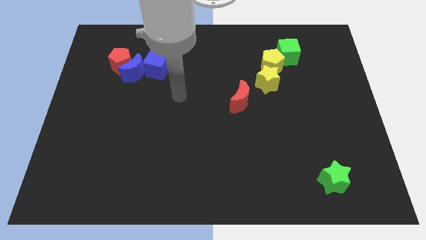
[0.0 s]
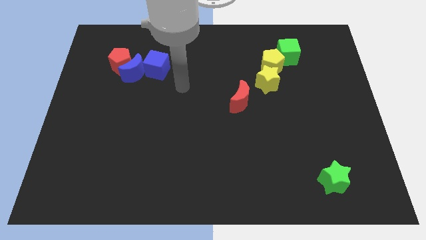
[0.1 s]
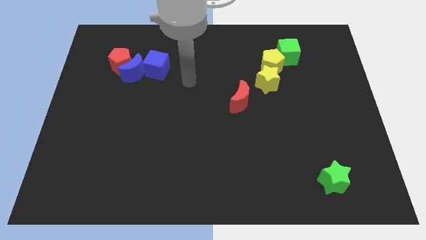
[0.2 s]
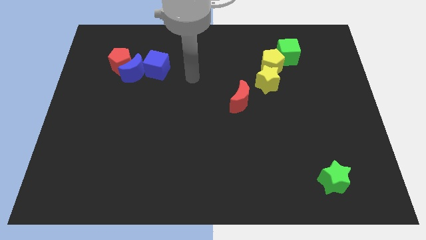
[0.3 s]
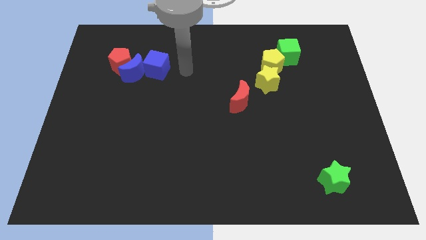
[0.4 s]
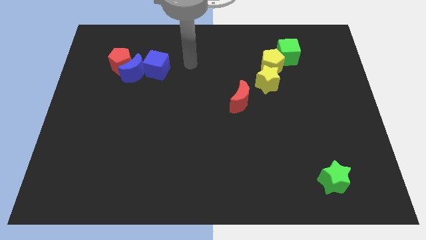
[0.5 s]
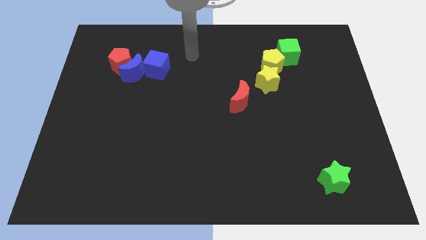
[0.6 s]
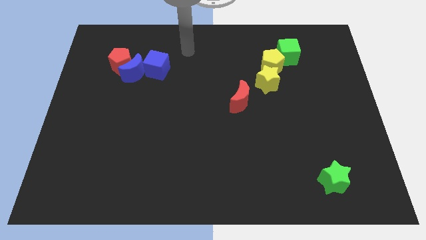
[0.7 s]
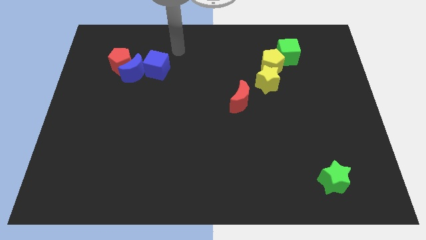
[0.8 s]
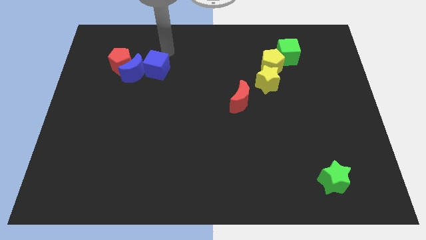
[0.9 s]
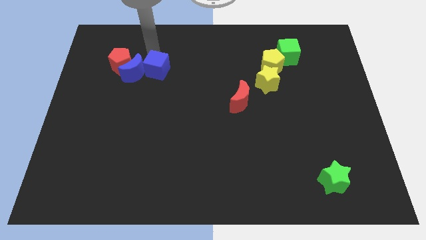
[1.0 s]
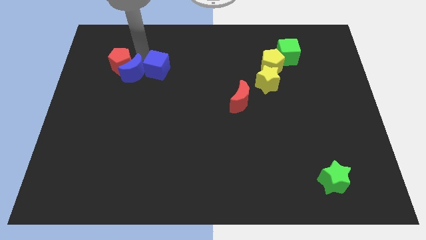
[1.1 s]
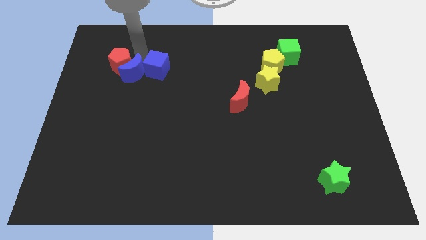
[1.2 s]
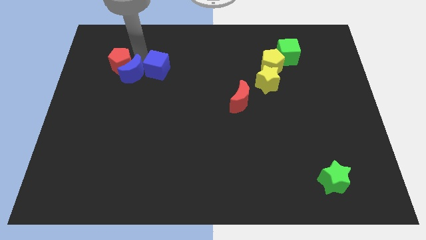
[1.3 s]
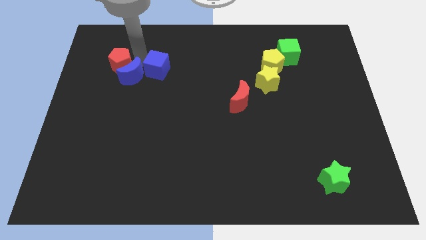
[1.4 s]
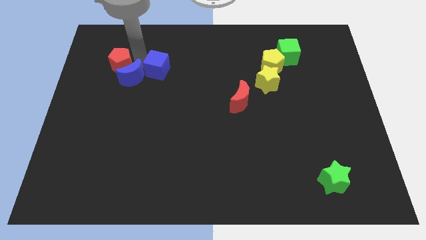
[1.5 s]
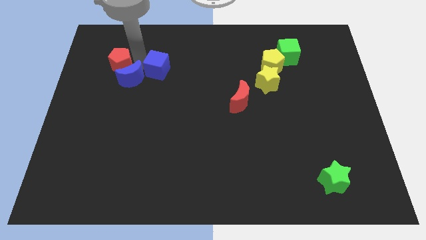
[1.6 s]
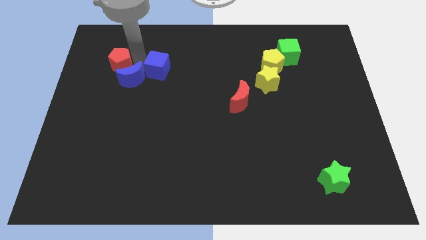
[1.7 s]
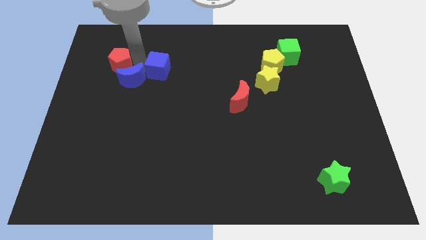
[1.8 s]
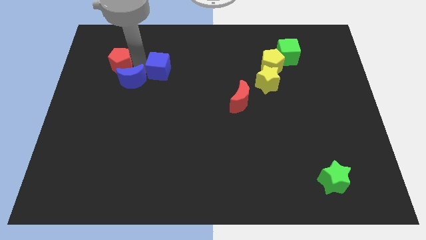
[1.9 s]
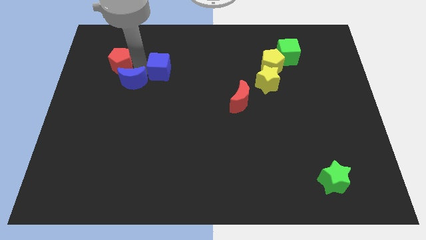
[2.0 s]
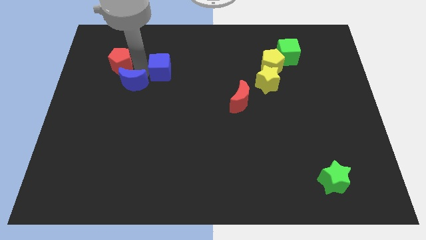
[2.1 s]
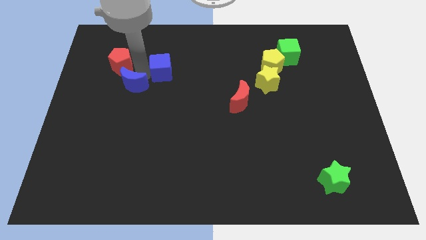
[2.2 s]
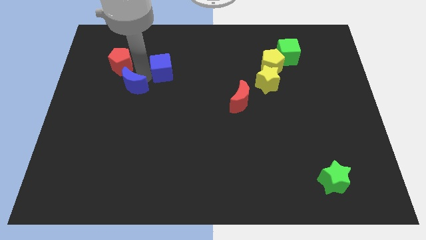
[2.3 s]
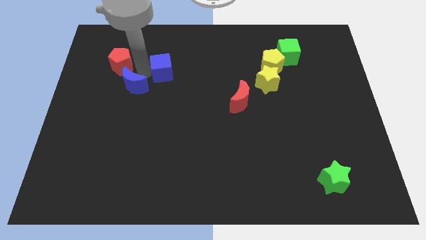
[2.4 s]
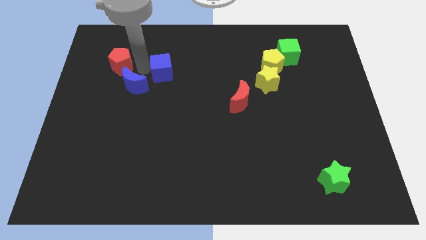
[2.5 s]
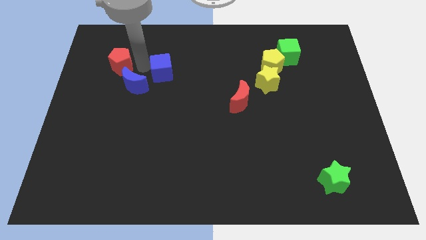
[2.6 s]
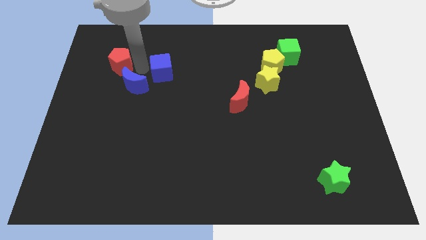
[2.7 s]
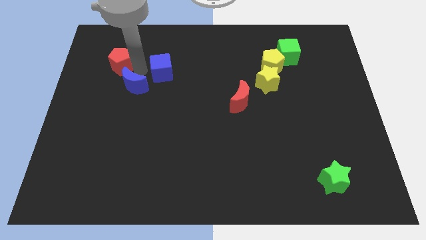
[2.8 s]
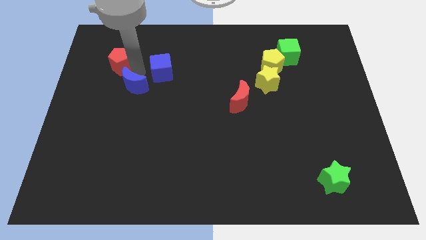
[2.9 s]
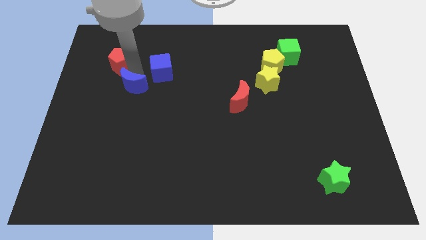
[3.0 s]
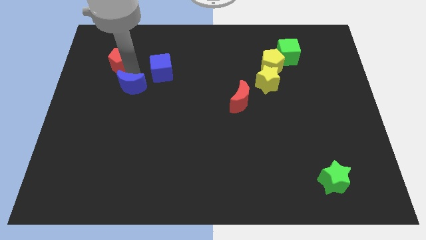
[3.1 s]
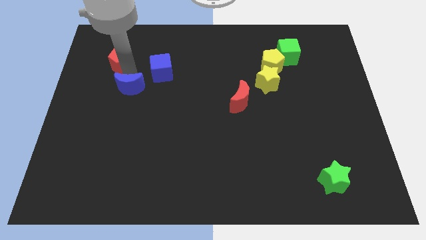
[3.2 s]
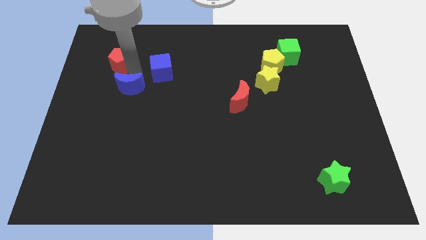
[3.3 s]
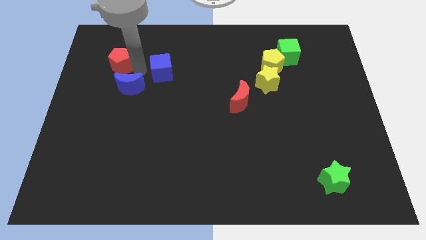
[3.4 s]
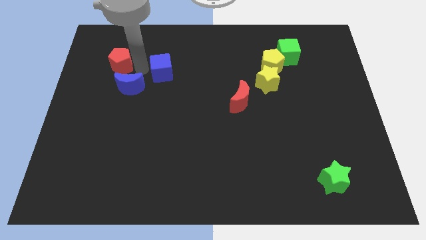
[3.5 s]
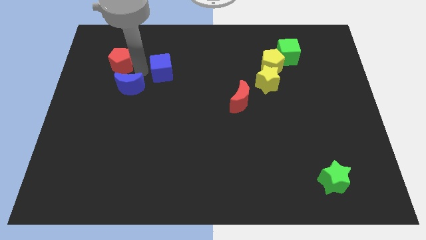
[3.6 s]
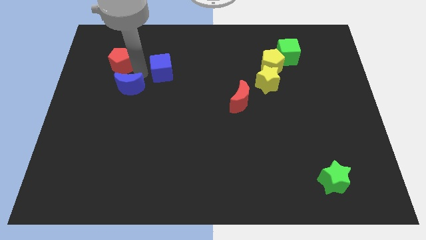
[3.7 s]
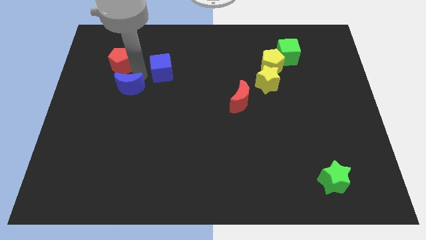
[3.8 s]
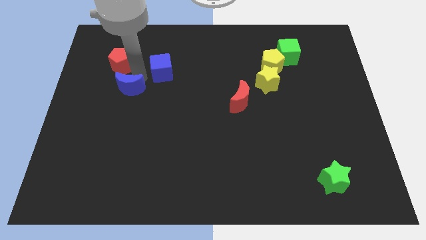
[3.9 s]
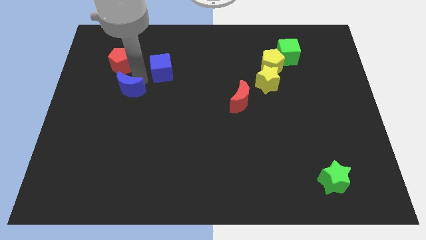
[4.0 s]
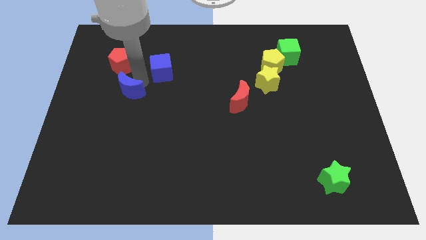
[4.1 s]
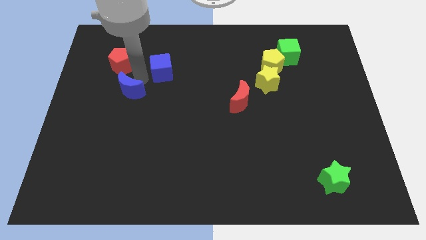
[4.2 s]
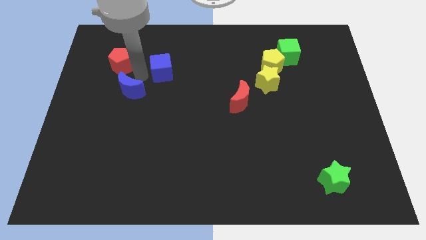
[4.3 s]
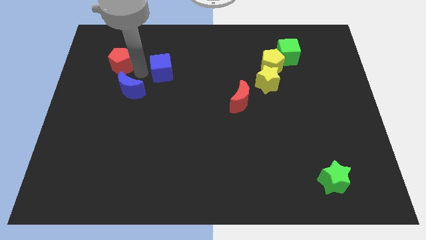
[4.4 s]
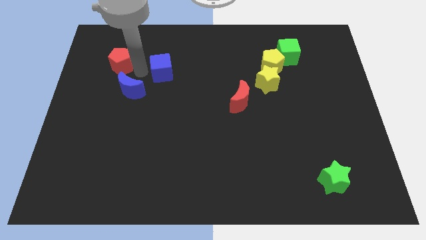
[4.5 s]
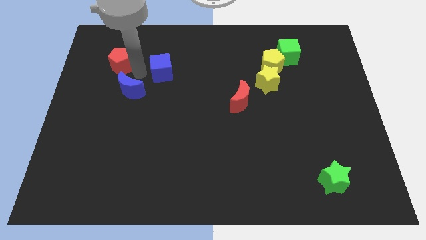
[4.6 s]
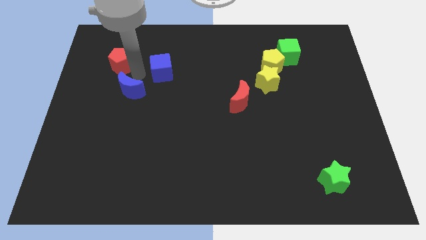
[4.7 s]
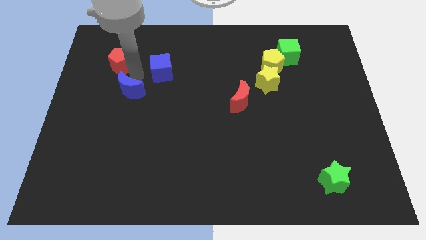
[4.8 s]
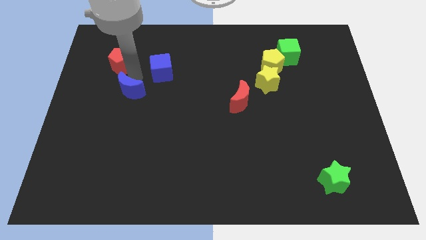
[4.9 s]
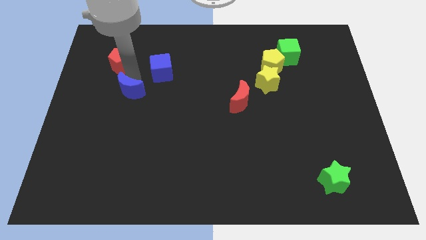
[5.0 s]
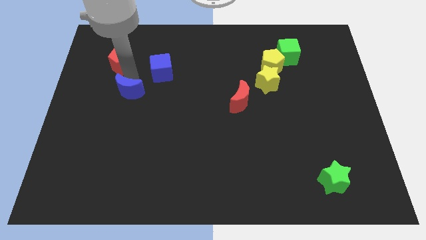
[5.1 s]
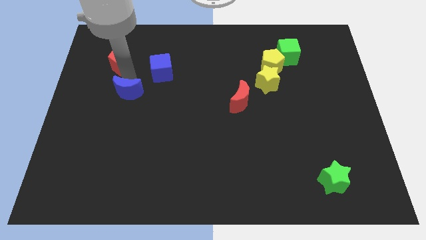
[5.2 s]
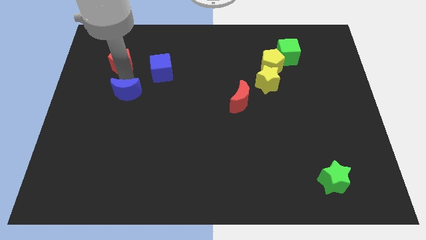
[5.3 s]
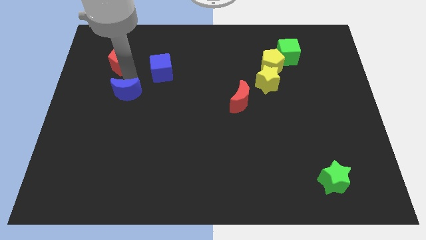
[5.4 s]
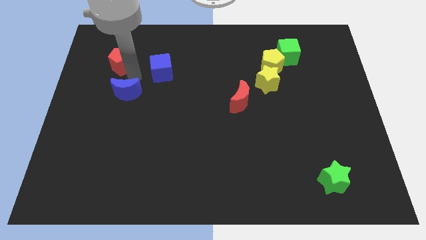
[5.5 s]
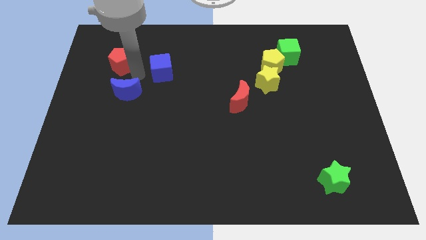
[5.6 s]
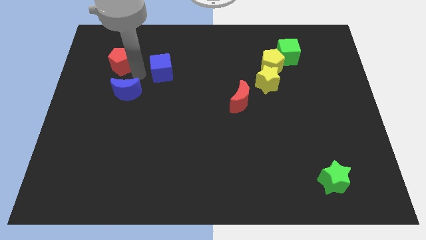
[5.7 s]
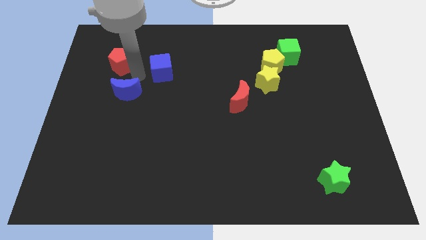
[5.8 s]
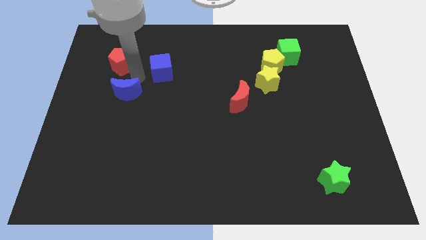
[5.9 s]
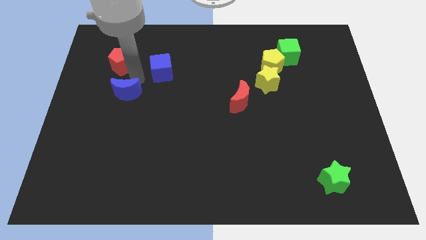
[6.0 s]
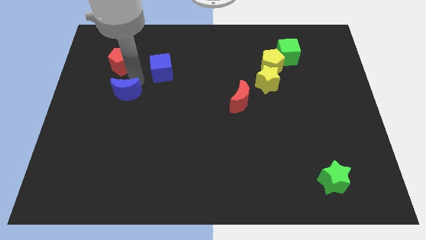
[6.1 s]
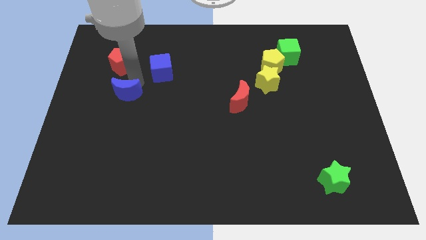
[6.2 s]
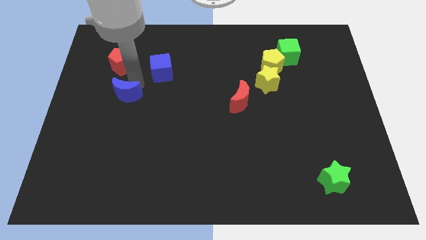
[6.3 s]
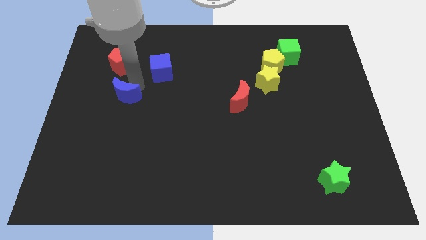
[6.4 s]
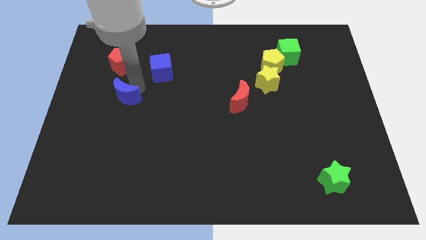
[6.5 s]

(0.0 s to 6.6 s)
separate the blue moon from the red pentagon and blue cube

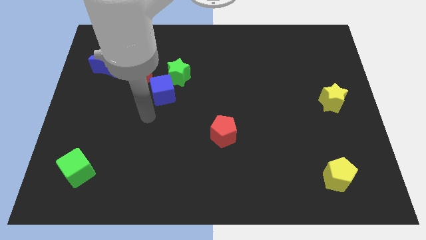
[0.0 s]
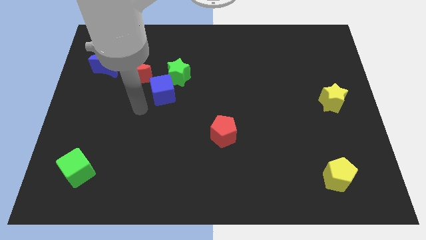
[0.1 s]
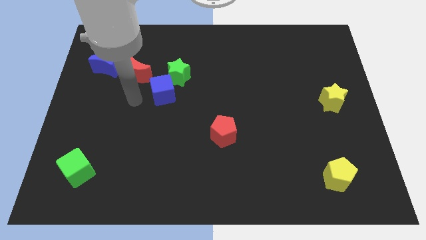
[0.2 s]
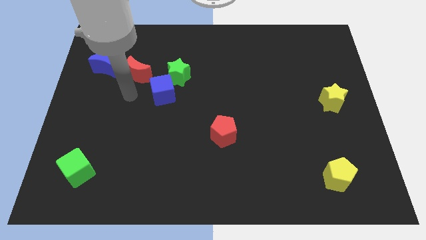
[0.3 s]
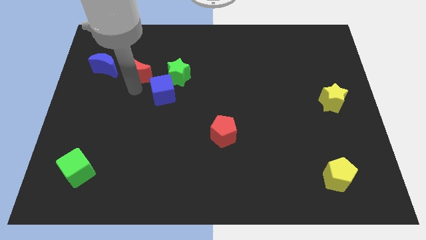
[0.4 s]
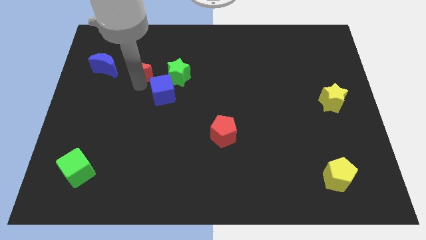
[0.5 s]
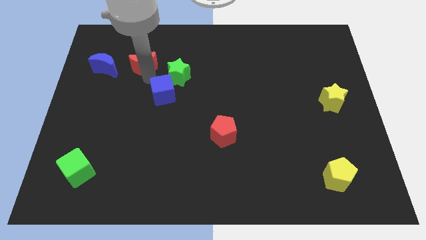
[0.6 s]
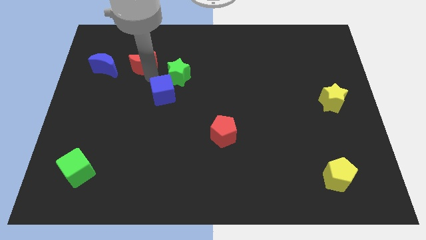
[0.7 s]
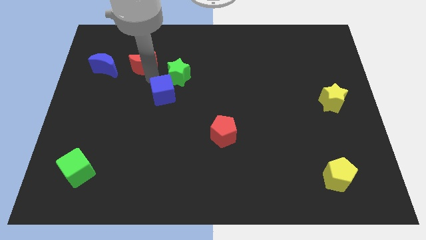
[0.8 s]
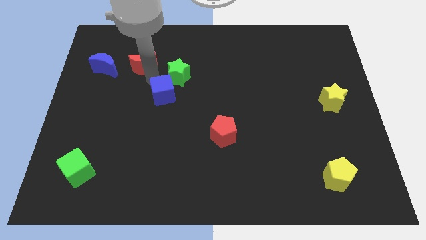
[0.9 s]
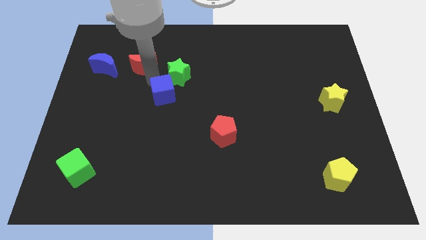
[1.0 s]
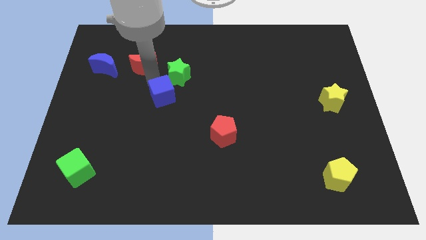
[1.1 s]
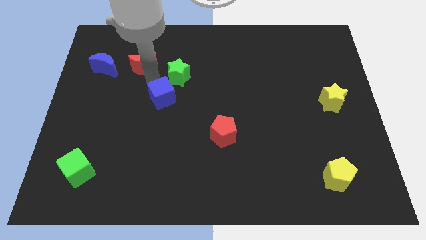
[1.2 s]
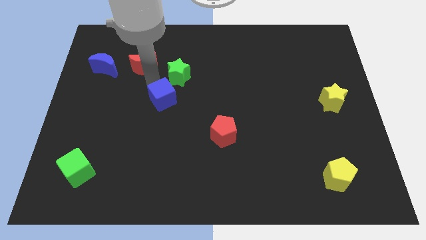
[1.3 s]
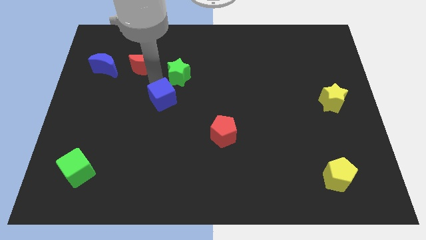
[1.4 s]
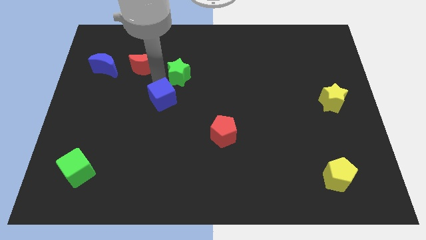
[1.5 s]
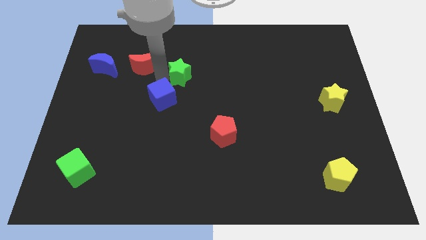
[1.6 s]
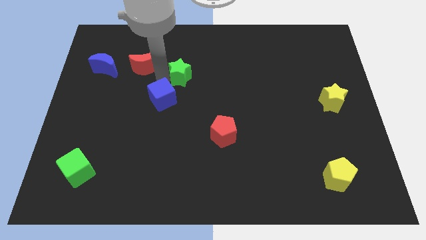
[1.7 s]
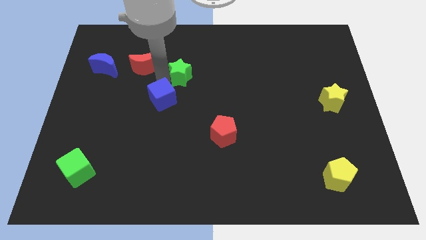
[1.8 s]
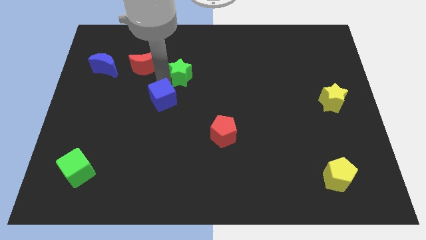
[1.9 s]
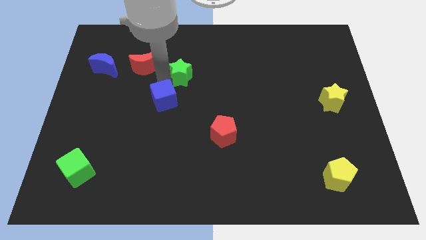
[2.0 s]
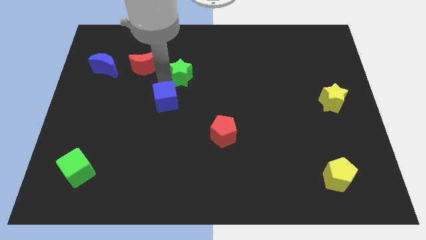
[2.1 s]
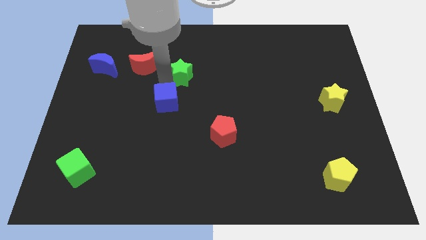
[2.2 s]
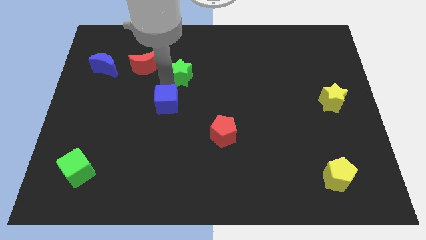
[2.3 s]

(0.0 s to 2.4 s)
move the blue cube away from the green star and red moon

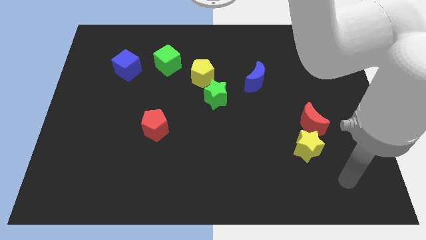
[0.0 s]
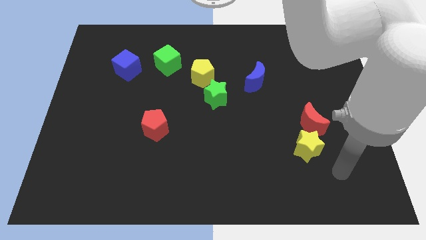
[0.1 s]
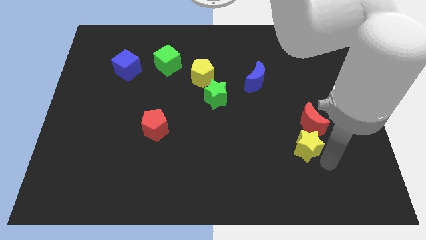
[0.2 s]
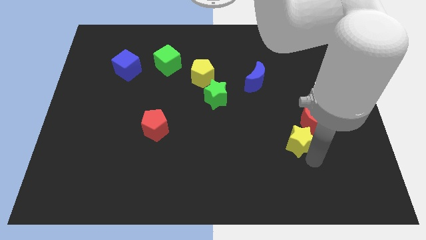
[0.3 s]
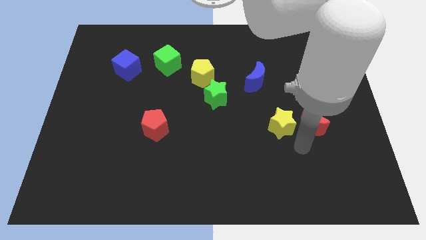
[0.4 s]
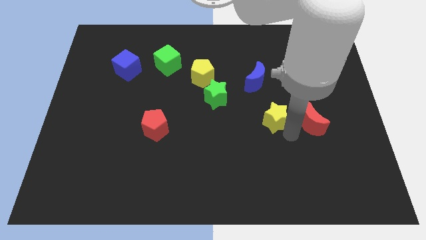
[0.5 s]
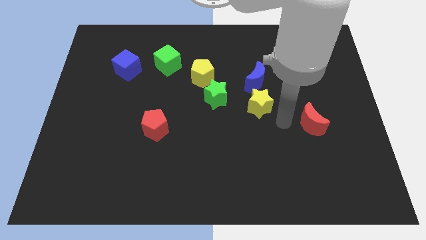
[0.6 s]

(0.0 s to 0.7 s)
move the red moon away from the yellow star
